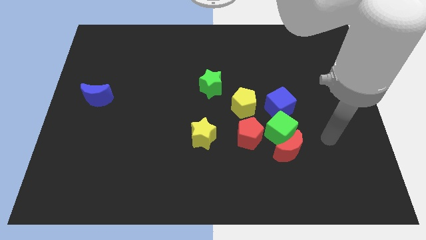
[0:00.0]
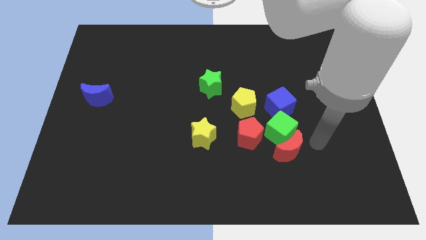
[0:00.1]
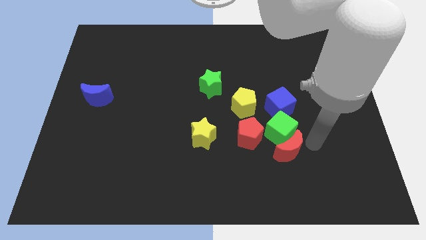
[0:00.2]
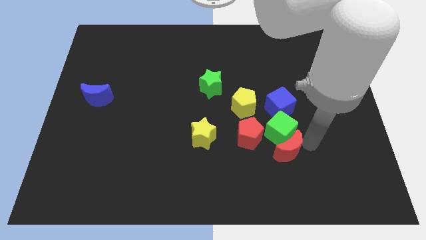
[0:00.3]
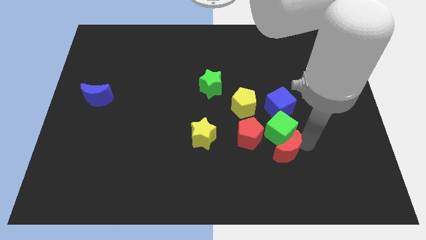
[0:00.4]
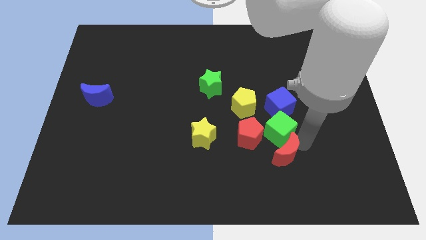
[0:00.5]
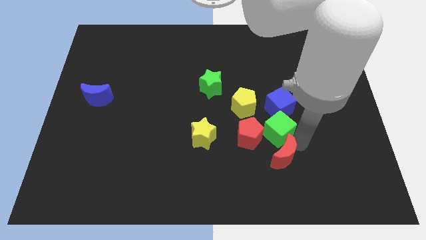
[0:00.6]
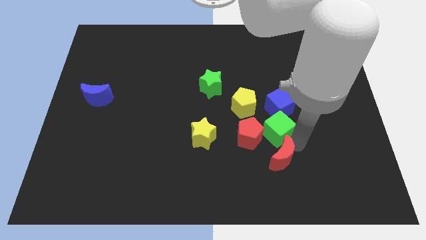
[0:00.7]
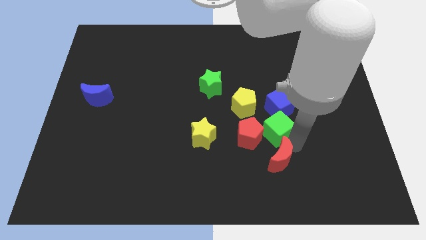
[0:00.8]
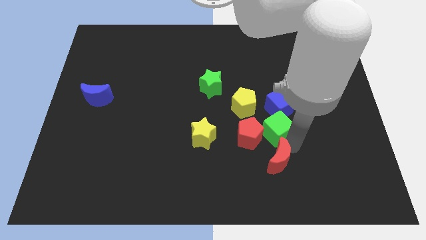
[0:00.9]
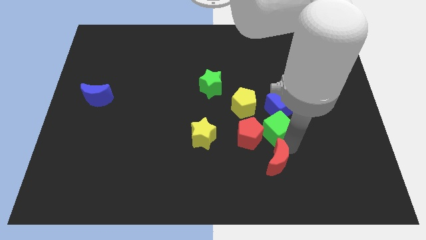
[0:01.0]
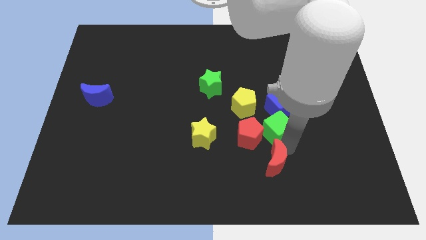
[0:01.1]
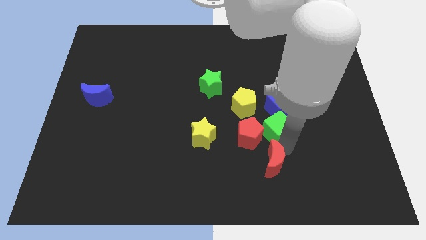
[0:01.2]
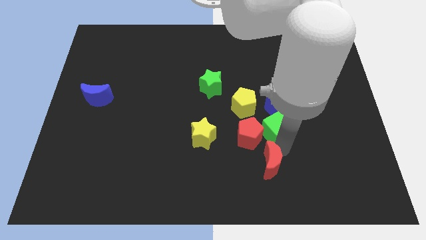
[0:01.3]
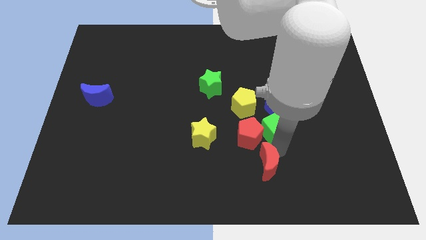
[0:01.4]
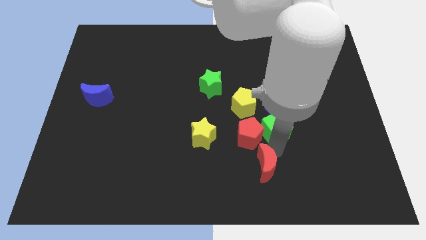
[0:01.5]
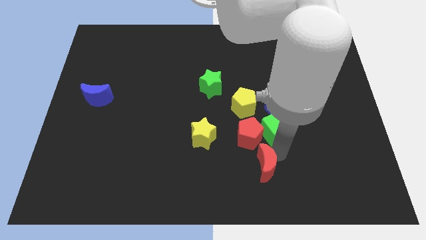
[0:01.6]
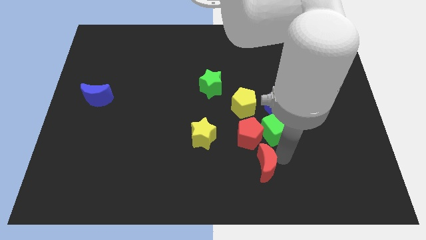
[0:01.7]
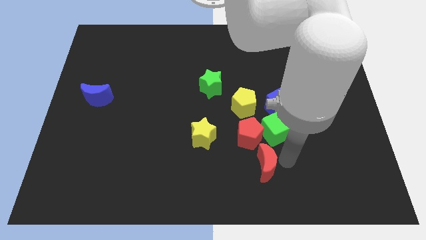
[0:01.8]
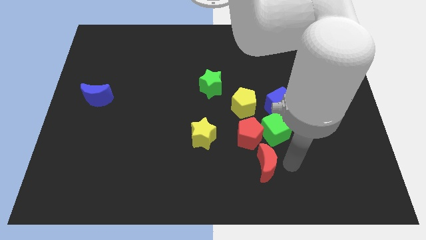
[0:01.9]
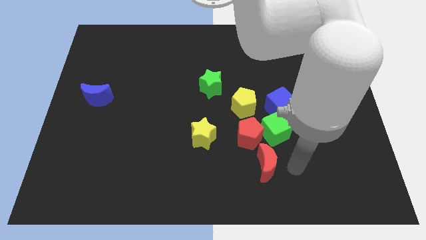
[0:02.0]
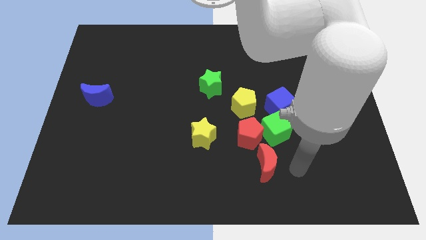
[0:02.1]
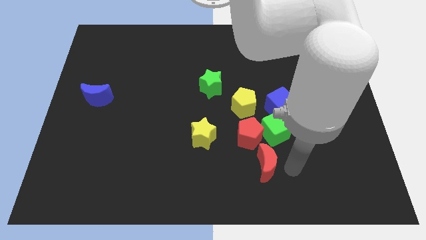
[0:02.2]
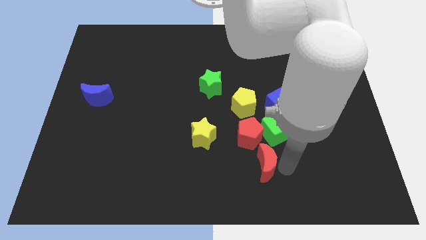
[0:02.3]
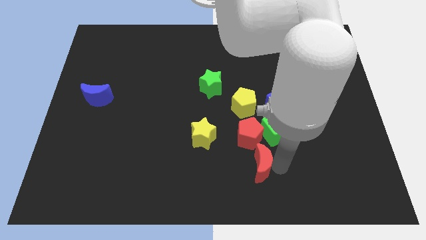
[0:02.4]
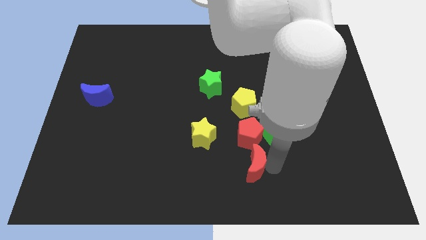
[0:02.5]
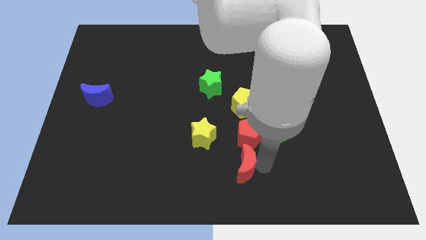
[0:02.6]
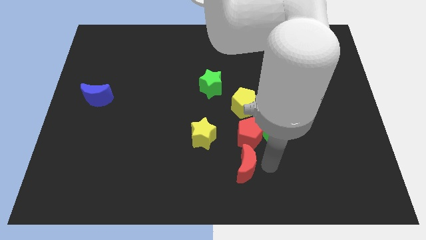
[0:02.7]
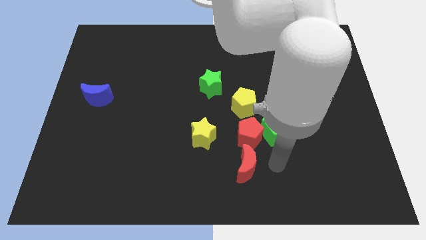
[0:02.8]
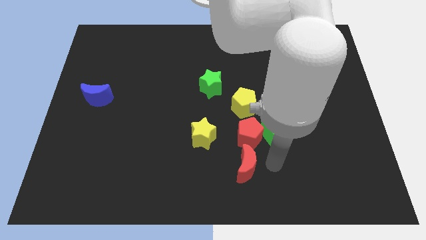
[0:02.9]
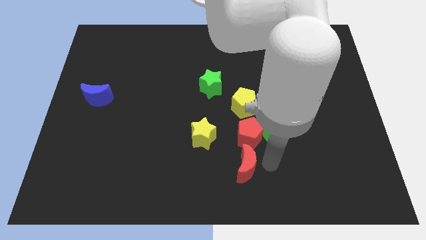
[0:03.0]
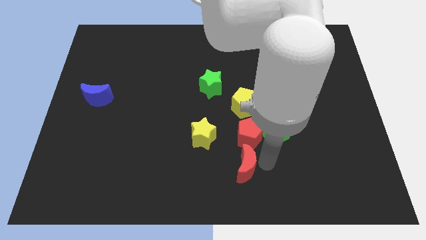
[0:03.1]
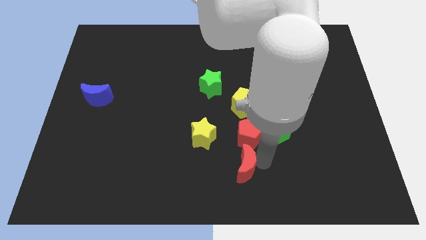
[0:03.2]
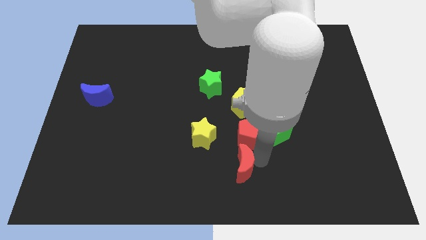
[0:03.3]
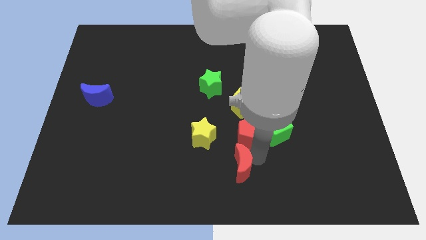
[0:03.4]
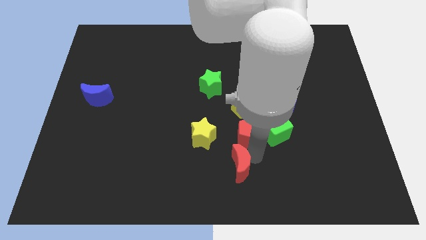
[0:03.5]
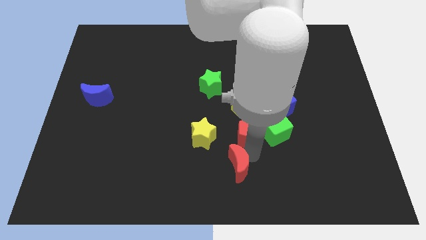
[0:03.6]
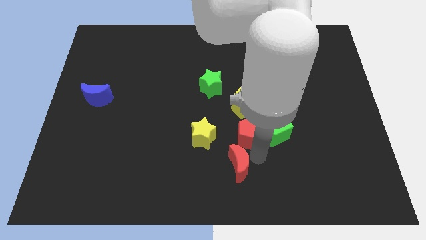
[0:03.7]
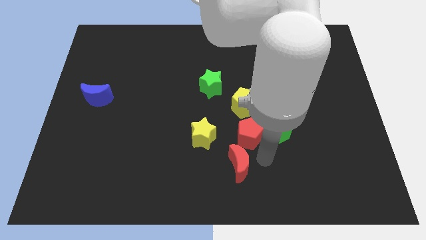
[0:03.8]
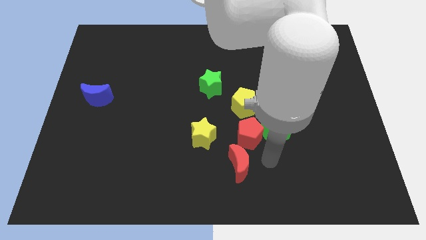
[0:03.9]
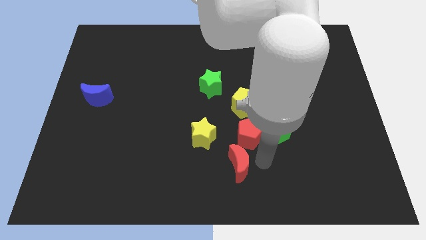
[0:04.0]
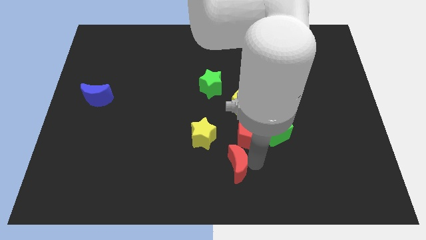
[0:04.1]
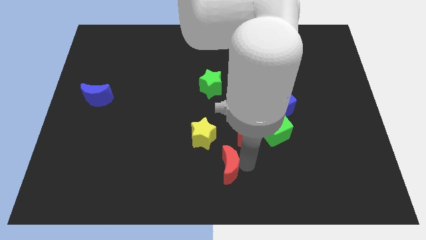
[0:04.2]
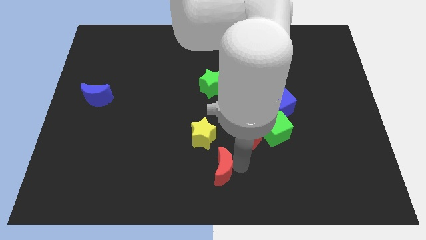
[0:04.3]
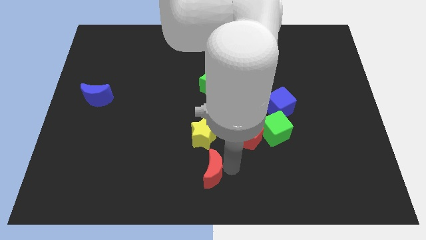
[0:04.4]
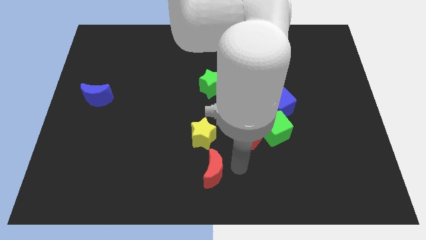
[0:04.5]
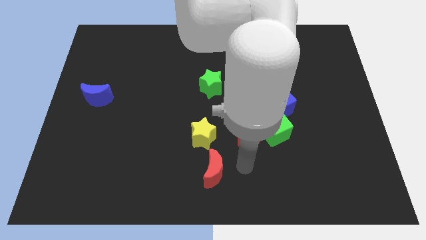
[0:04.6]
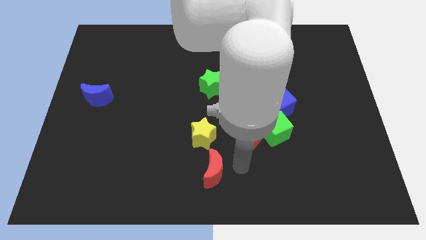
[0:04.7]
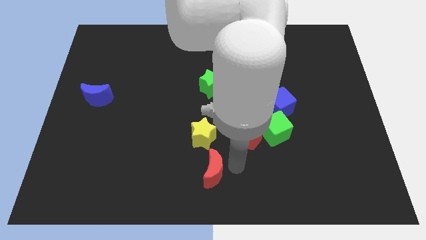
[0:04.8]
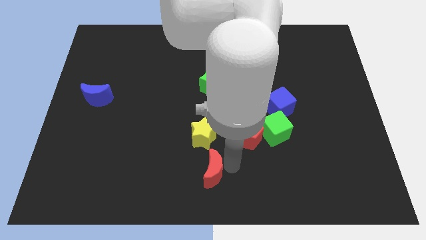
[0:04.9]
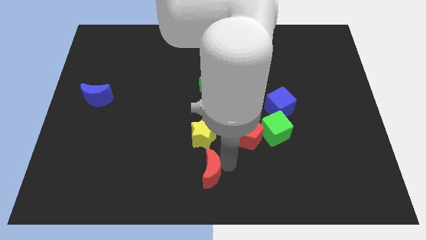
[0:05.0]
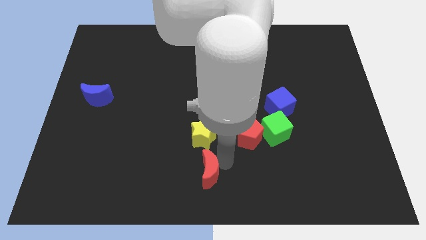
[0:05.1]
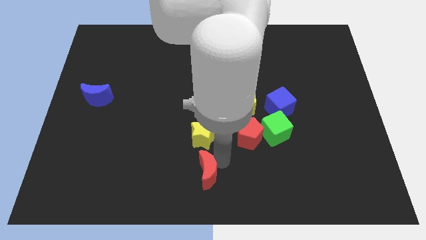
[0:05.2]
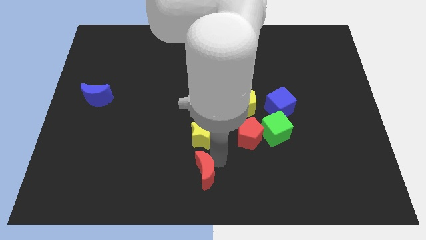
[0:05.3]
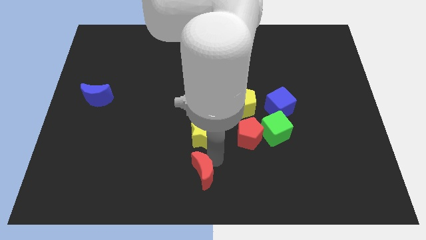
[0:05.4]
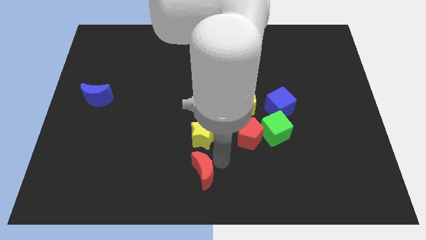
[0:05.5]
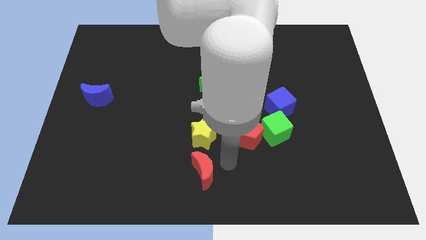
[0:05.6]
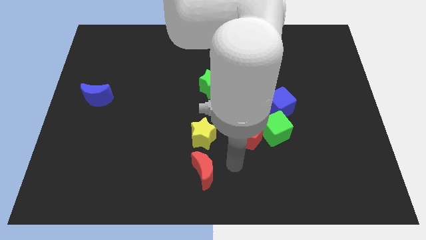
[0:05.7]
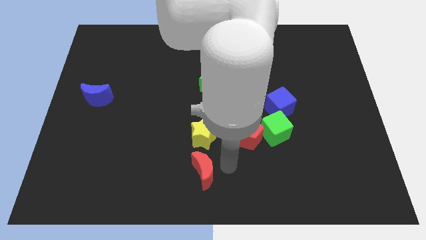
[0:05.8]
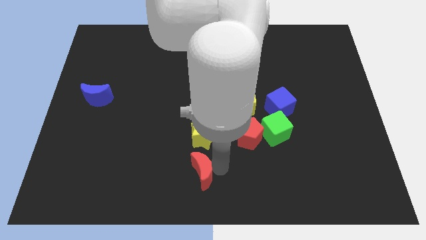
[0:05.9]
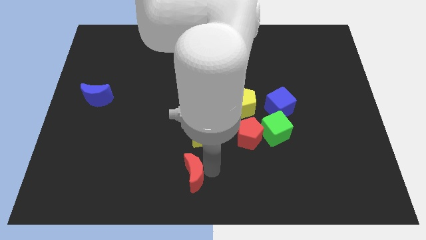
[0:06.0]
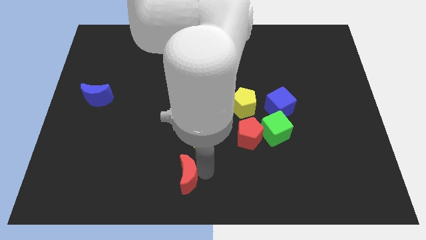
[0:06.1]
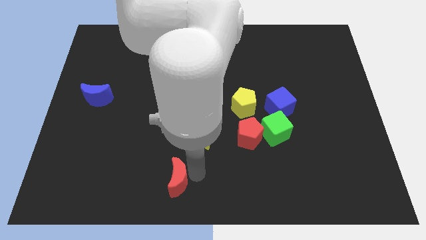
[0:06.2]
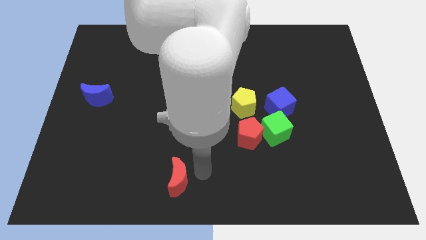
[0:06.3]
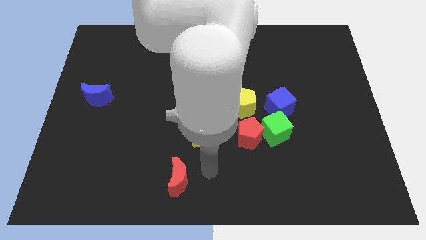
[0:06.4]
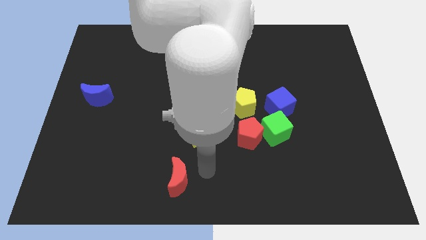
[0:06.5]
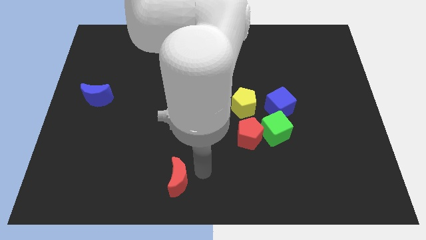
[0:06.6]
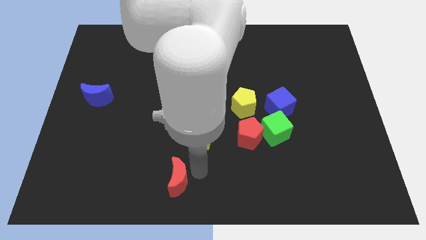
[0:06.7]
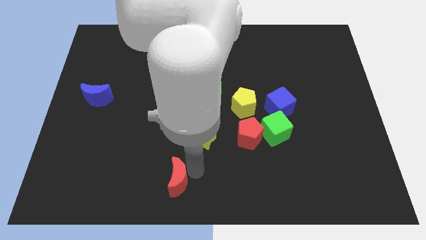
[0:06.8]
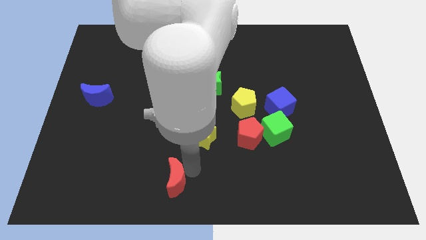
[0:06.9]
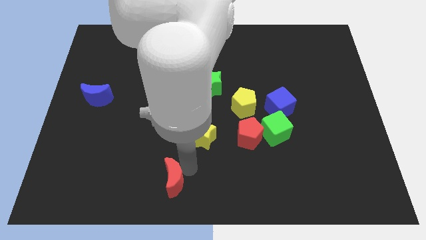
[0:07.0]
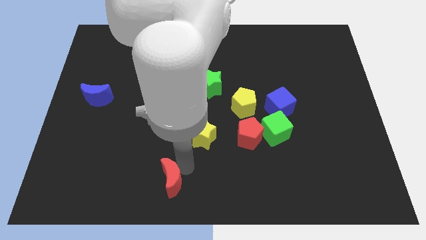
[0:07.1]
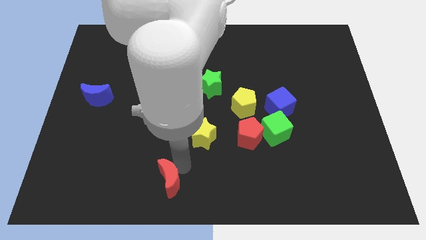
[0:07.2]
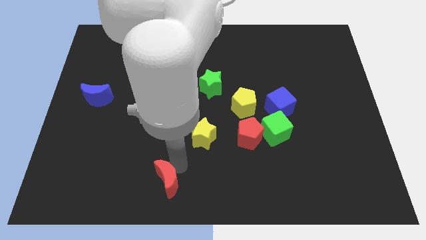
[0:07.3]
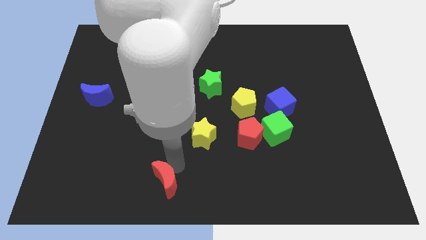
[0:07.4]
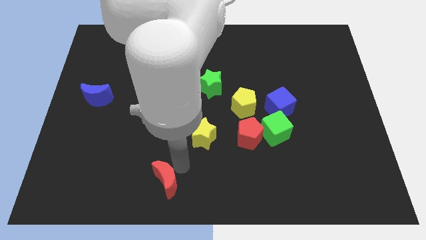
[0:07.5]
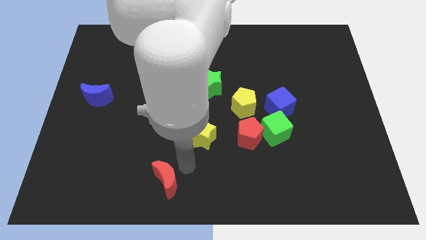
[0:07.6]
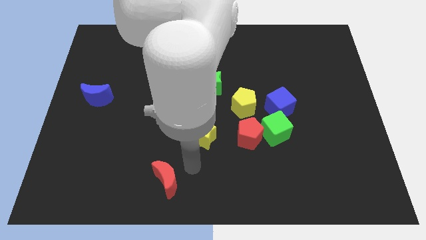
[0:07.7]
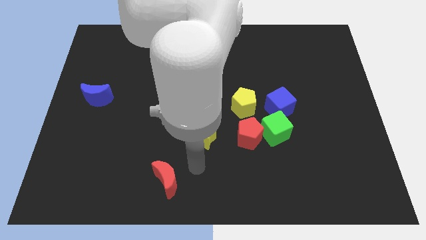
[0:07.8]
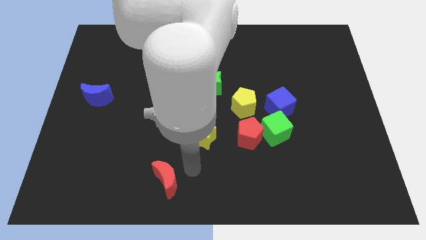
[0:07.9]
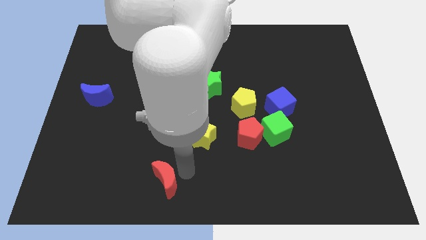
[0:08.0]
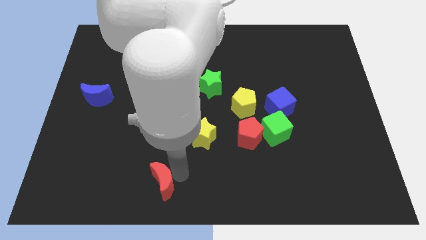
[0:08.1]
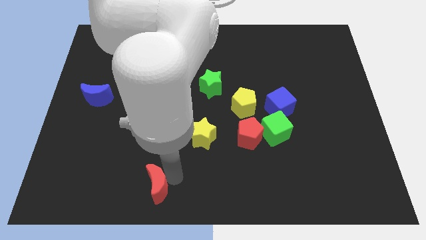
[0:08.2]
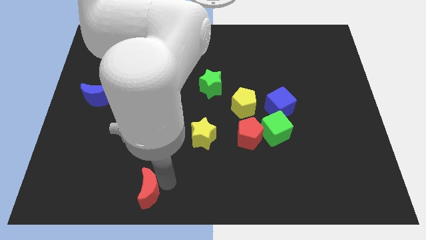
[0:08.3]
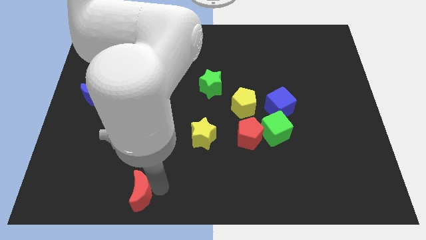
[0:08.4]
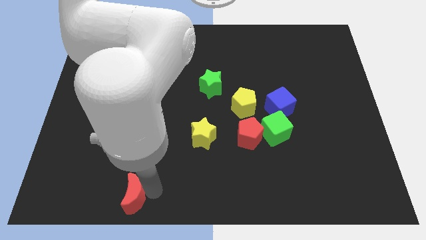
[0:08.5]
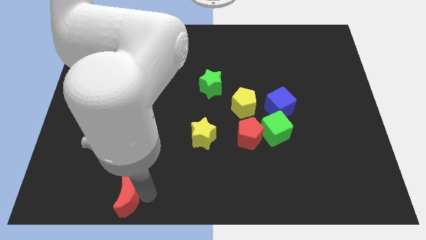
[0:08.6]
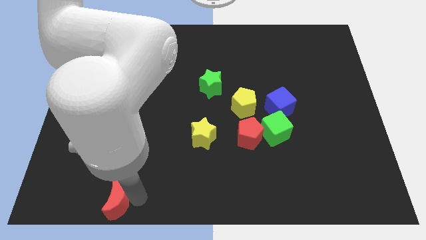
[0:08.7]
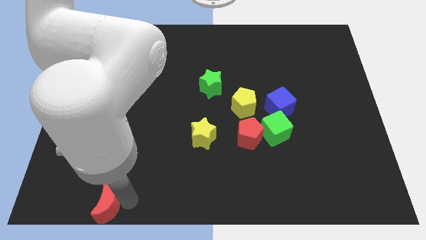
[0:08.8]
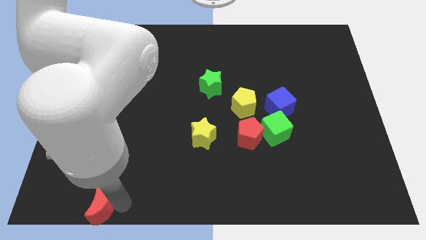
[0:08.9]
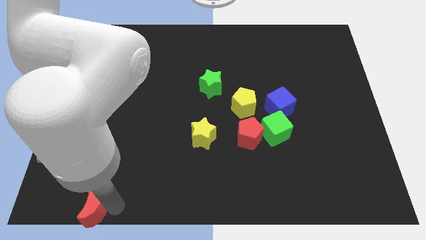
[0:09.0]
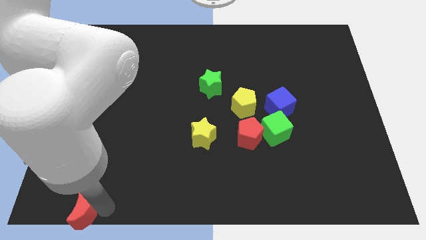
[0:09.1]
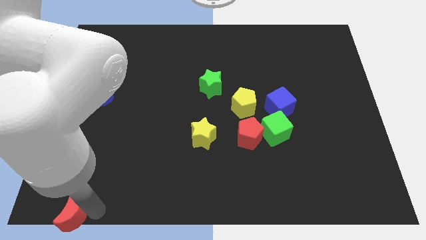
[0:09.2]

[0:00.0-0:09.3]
move the red moon to the bottom left corner
